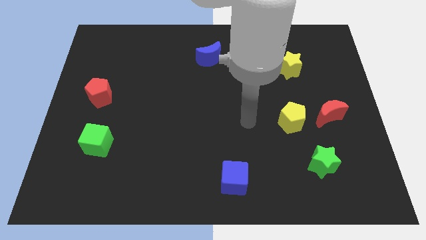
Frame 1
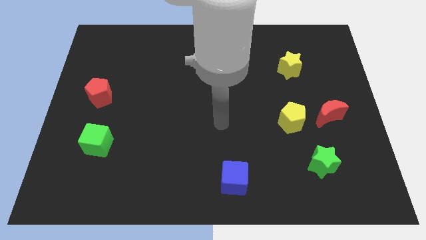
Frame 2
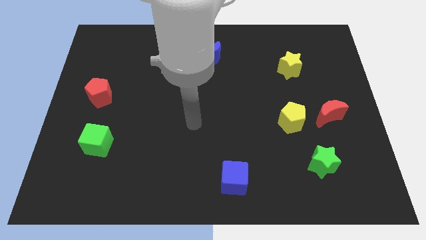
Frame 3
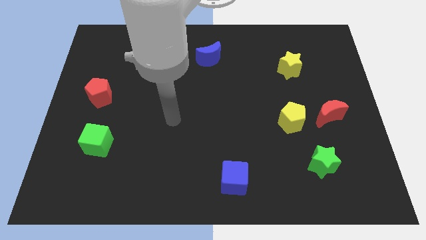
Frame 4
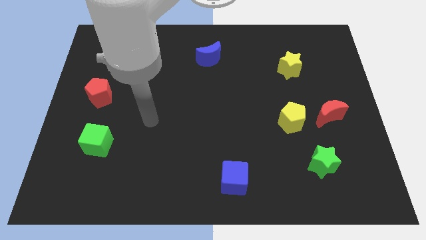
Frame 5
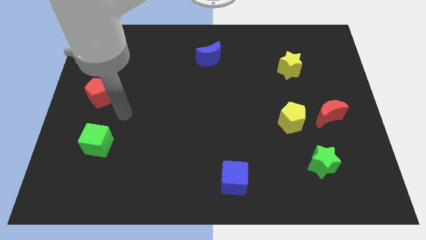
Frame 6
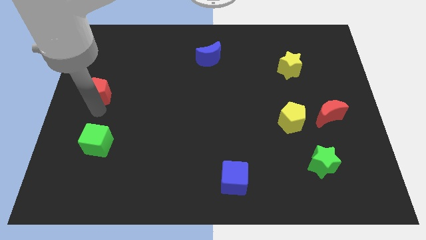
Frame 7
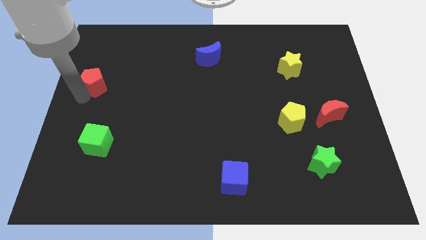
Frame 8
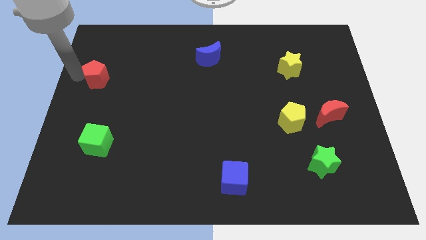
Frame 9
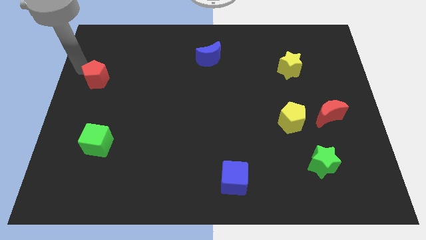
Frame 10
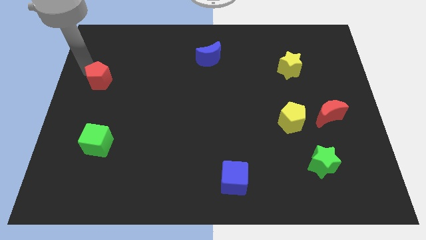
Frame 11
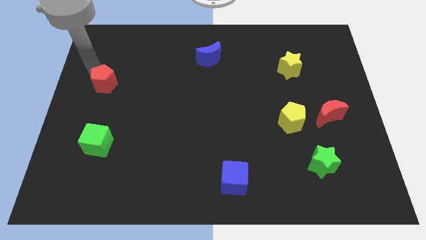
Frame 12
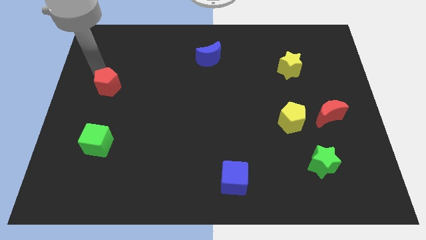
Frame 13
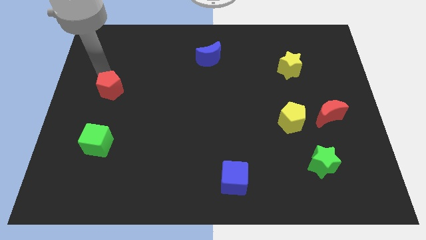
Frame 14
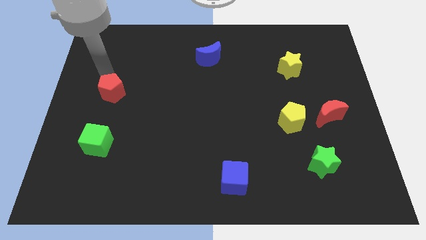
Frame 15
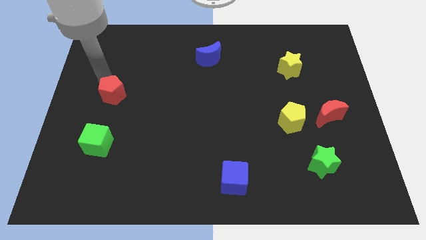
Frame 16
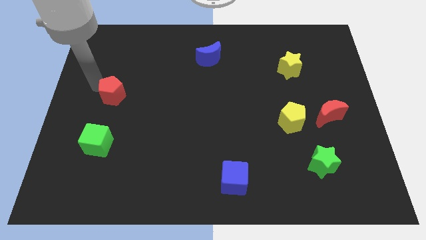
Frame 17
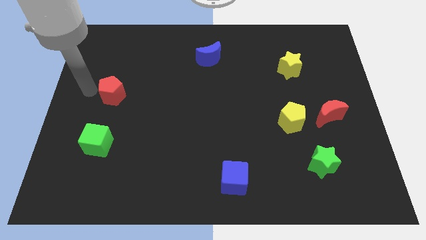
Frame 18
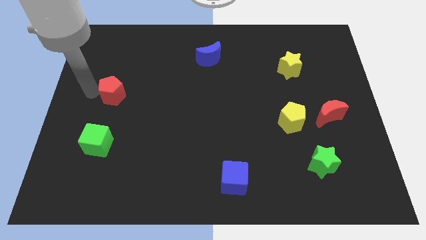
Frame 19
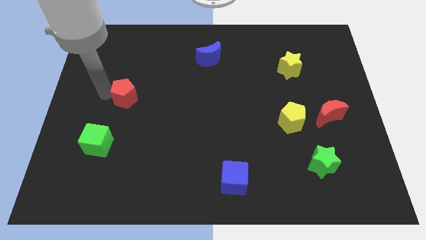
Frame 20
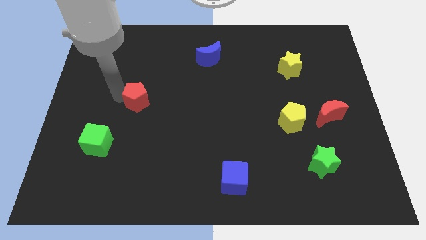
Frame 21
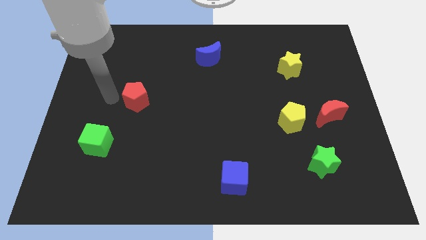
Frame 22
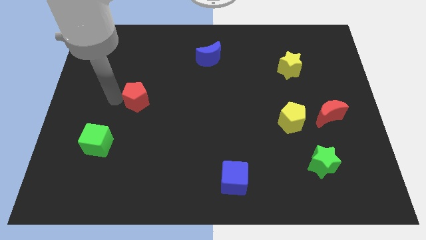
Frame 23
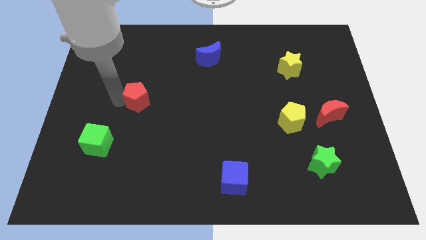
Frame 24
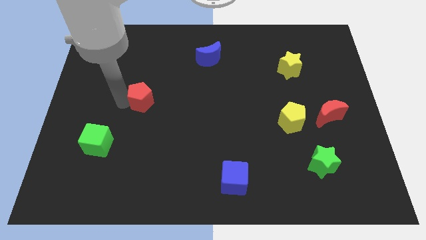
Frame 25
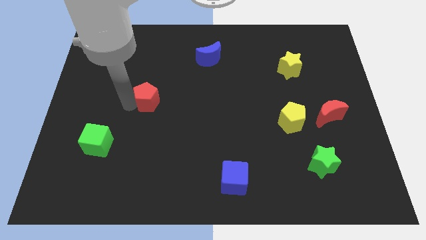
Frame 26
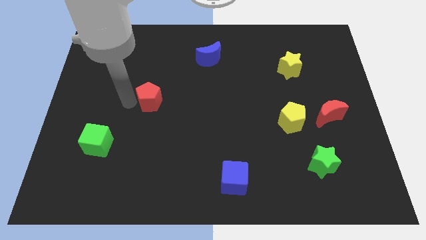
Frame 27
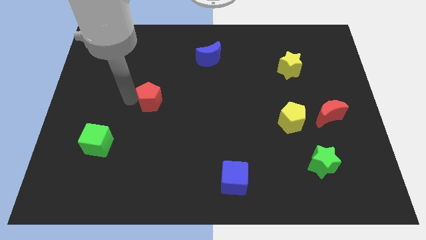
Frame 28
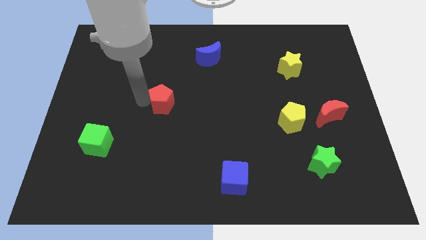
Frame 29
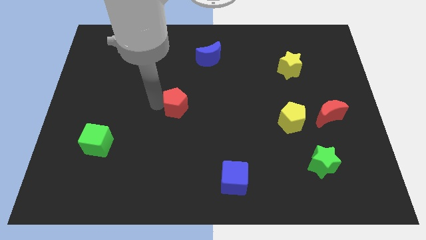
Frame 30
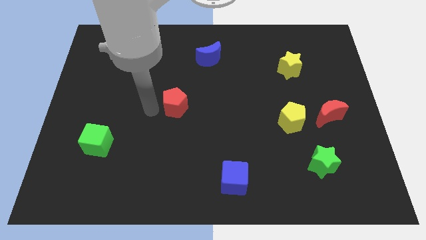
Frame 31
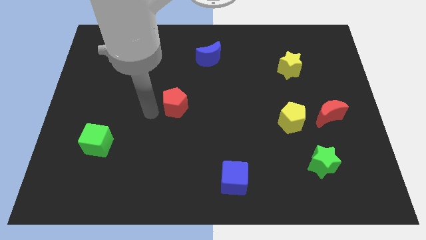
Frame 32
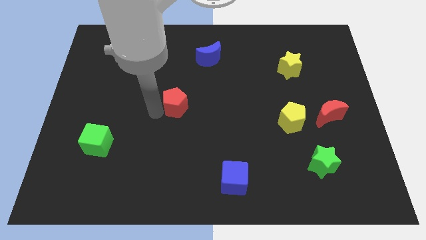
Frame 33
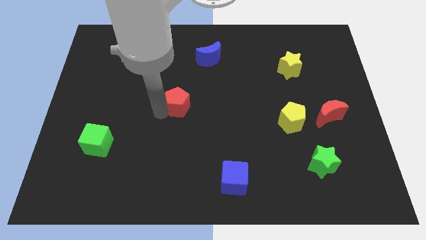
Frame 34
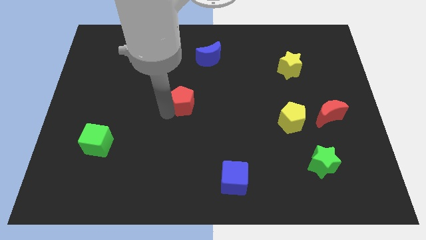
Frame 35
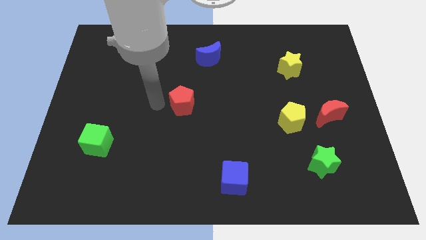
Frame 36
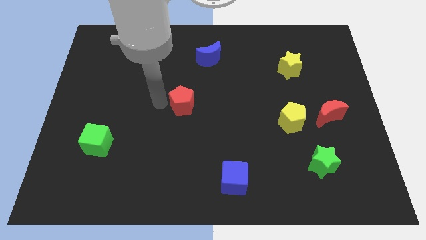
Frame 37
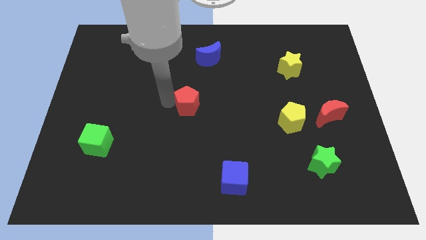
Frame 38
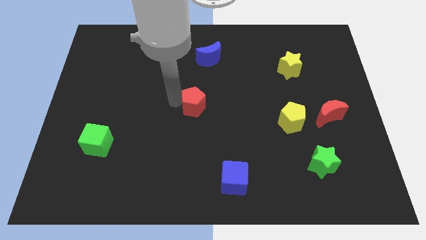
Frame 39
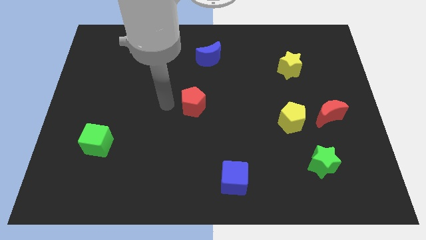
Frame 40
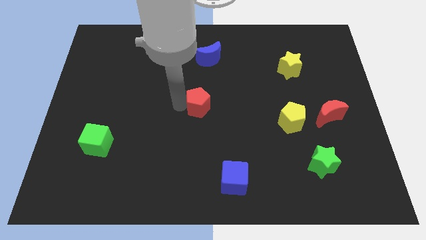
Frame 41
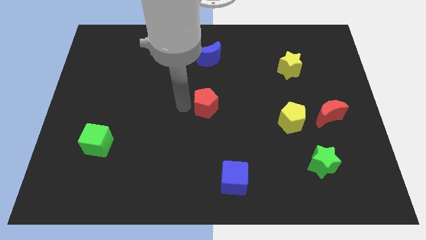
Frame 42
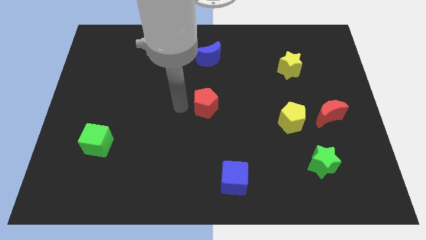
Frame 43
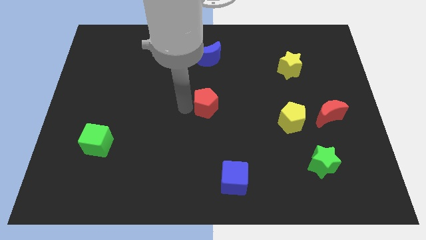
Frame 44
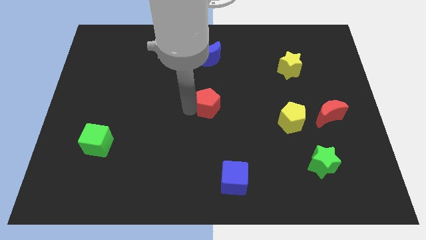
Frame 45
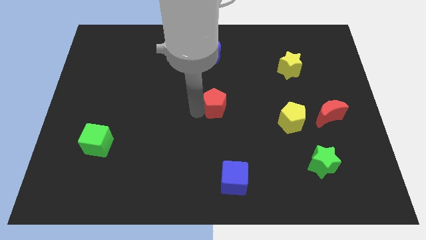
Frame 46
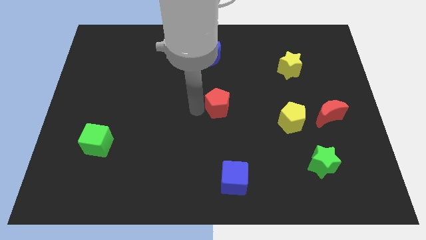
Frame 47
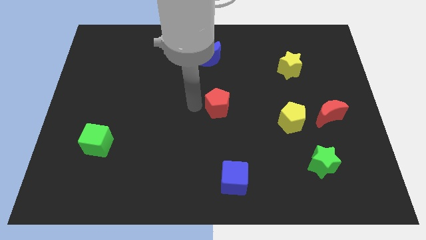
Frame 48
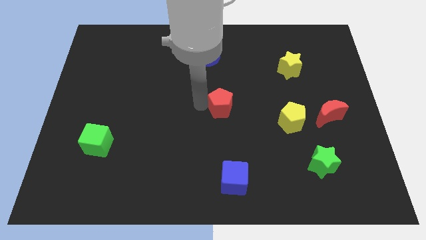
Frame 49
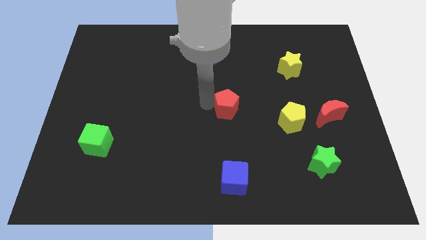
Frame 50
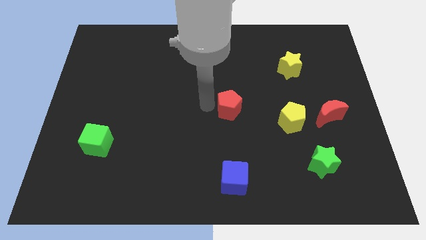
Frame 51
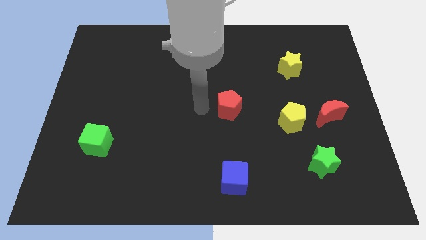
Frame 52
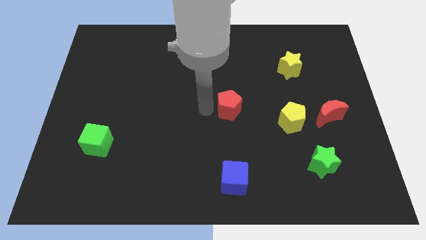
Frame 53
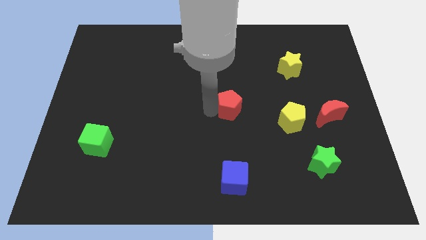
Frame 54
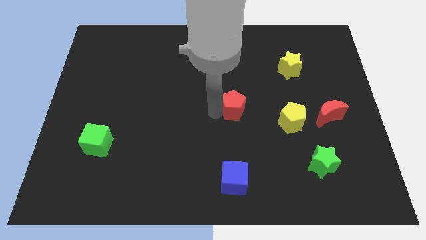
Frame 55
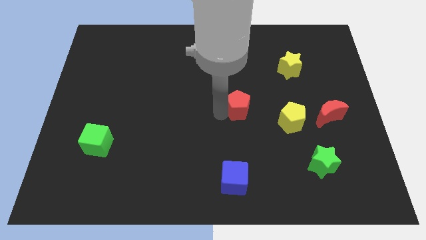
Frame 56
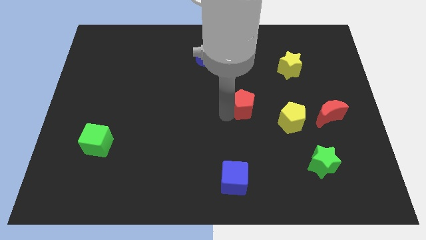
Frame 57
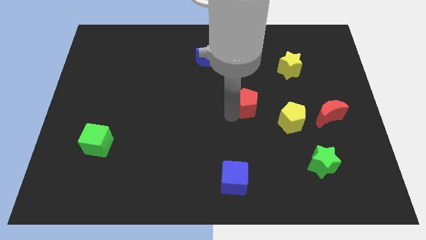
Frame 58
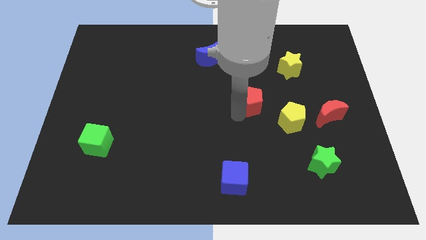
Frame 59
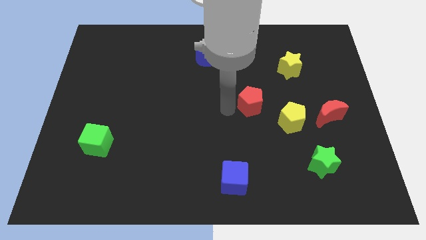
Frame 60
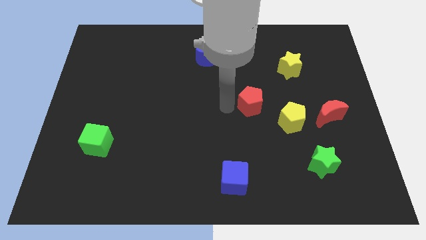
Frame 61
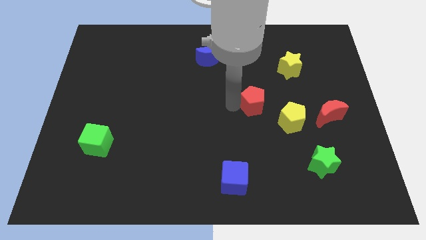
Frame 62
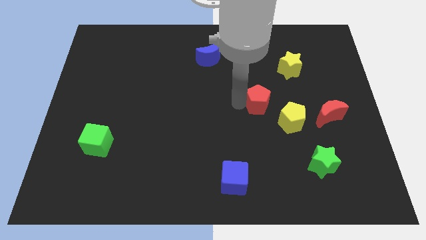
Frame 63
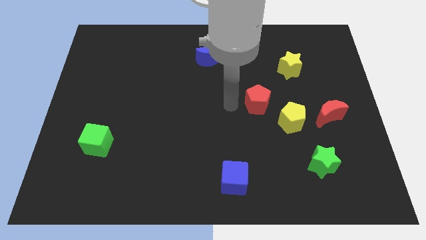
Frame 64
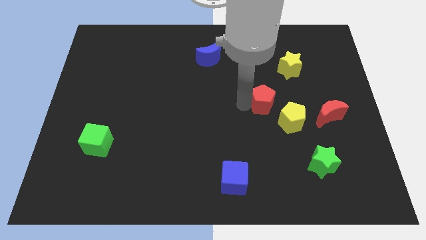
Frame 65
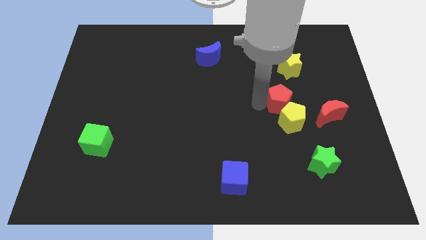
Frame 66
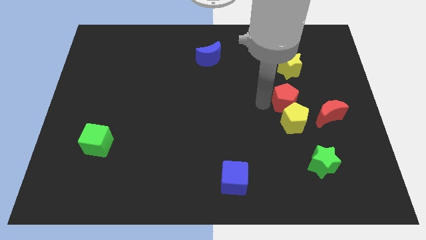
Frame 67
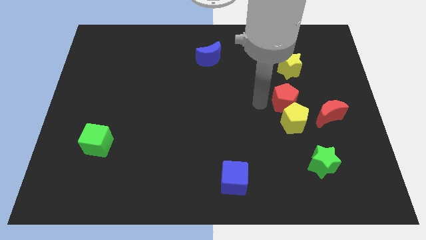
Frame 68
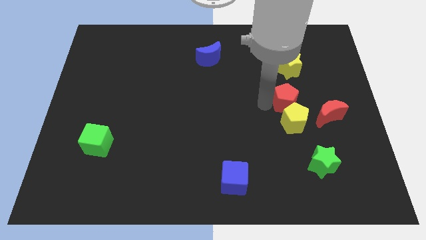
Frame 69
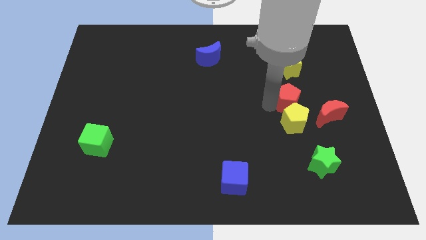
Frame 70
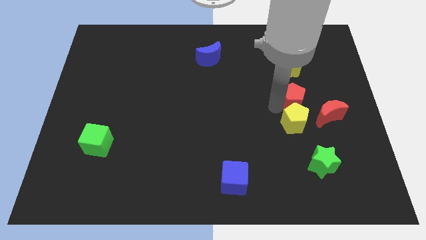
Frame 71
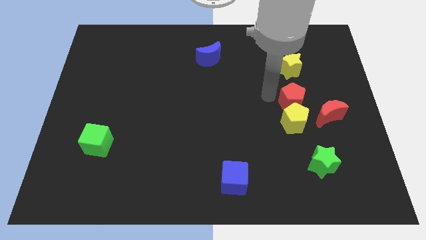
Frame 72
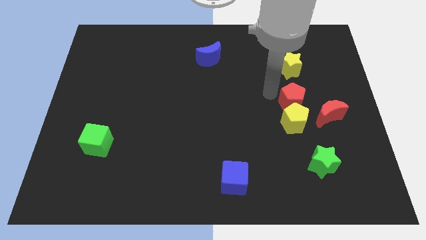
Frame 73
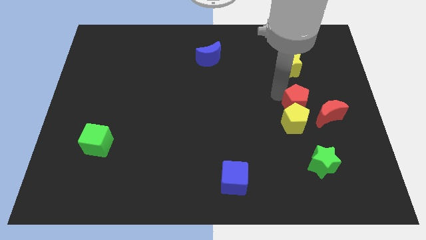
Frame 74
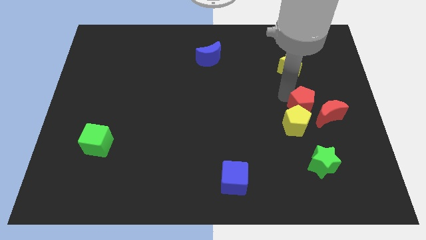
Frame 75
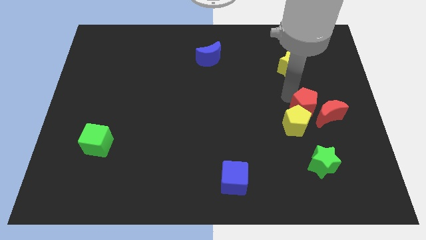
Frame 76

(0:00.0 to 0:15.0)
put the red pentagon towards the red moon

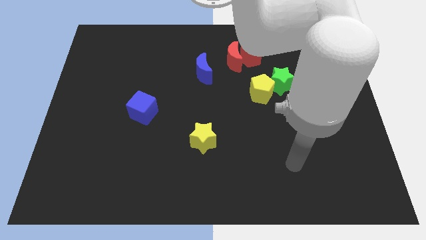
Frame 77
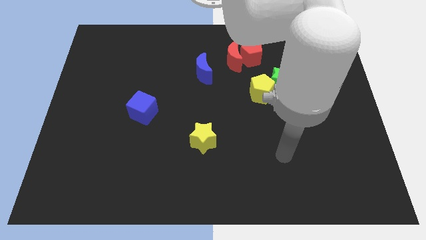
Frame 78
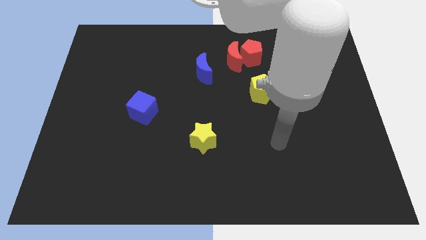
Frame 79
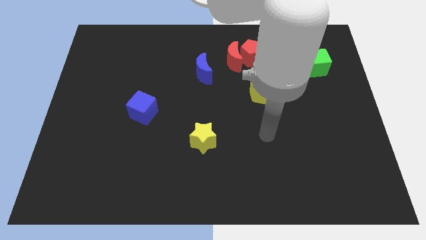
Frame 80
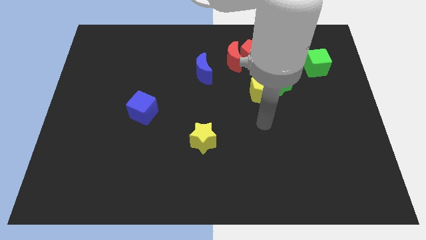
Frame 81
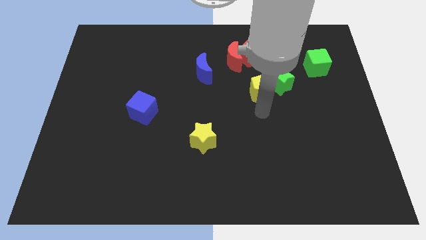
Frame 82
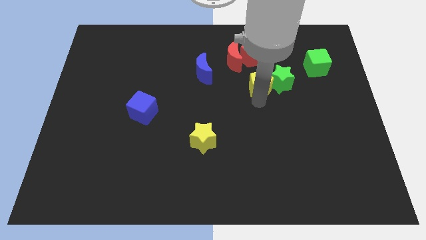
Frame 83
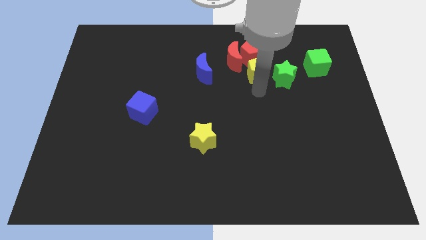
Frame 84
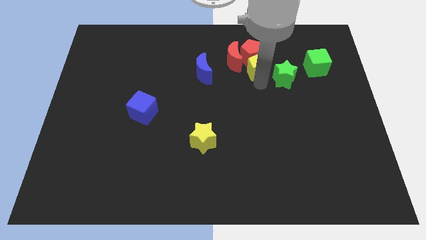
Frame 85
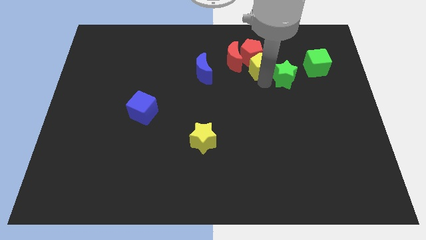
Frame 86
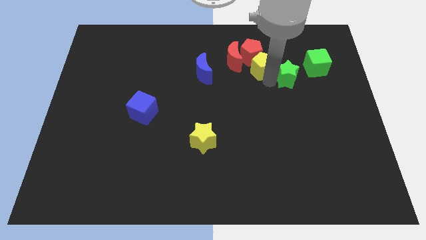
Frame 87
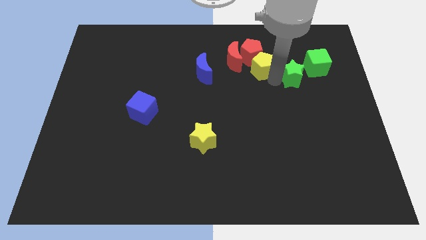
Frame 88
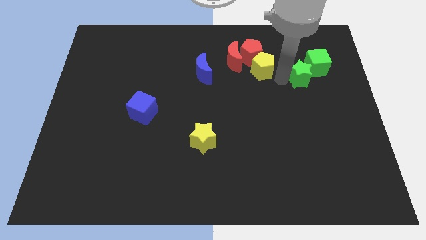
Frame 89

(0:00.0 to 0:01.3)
move the green star close to the green cube
